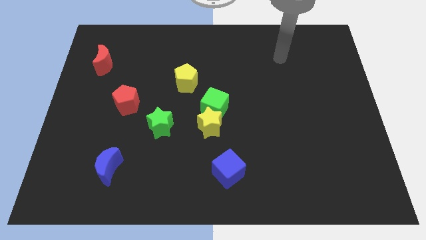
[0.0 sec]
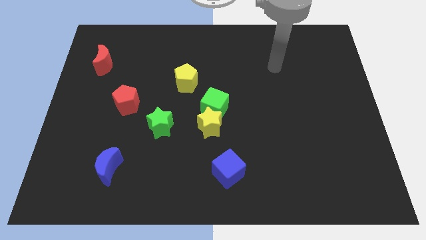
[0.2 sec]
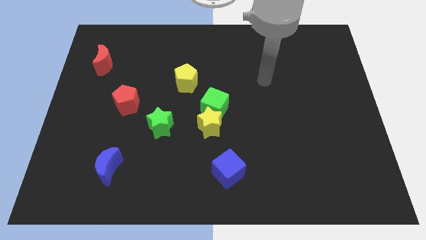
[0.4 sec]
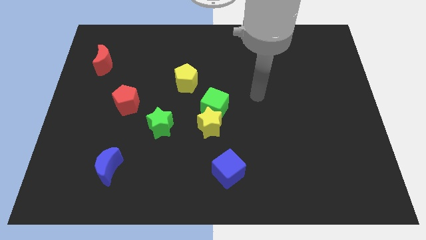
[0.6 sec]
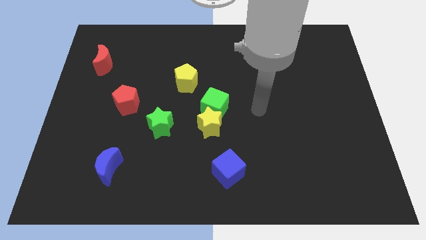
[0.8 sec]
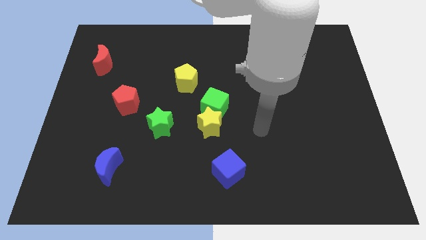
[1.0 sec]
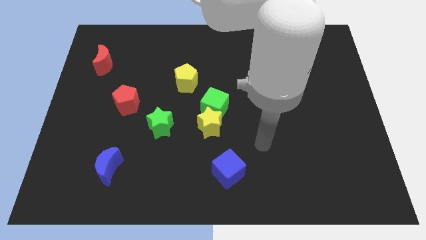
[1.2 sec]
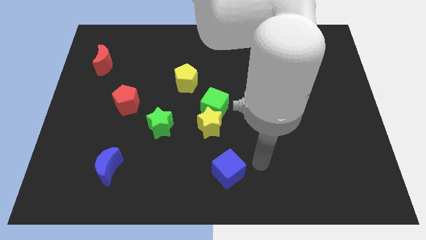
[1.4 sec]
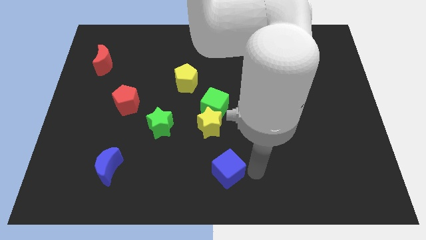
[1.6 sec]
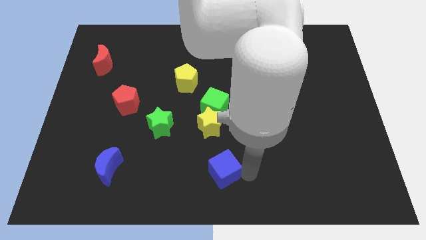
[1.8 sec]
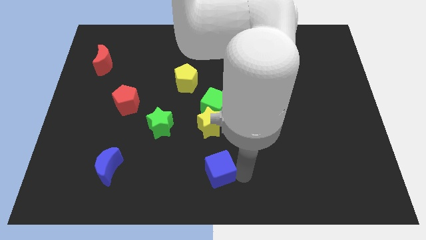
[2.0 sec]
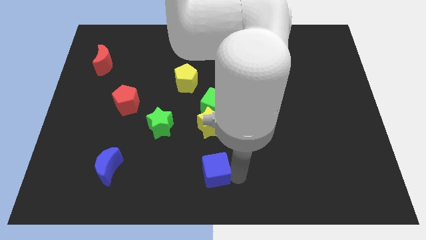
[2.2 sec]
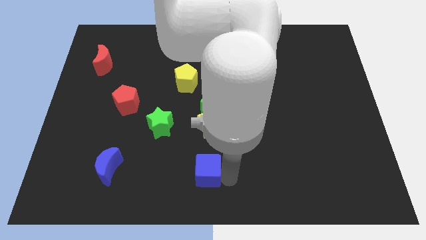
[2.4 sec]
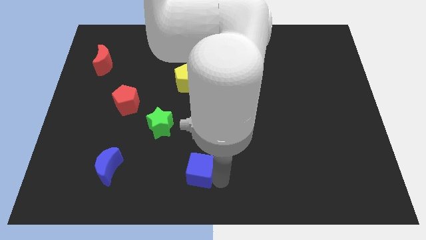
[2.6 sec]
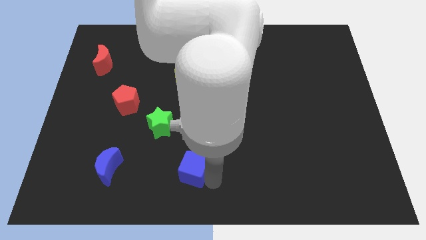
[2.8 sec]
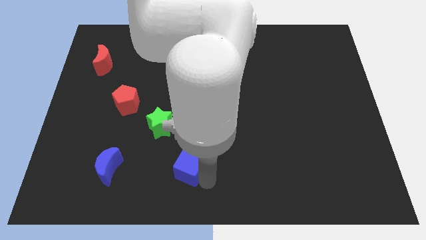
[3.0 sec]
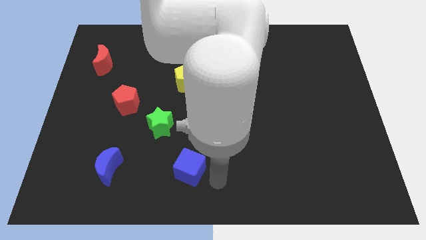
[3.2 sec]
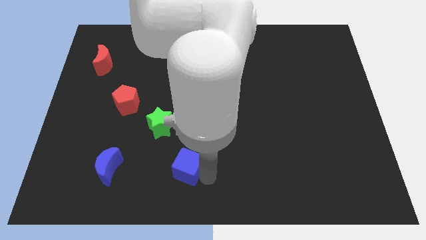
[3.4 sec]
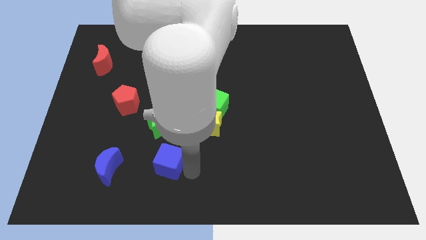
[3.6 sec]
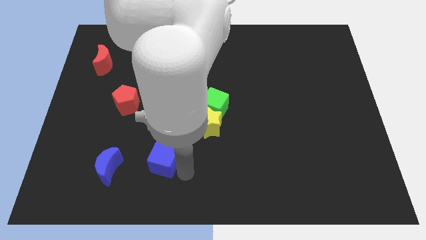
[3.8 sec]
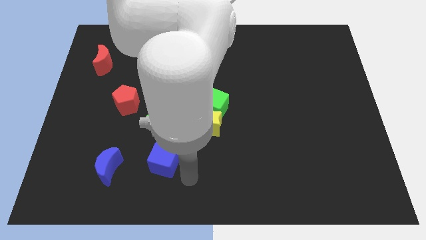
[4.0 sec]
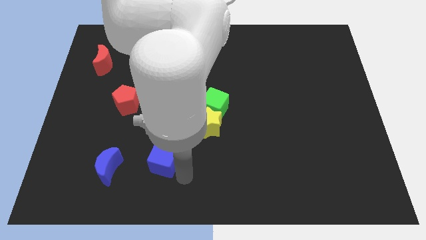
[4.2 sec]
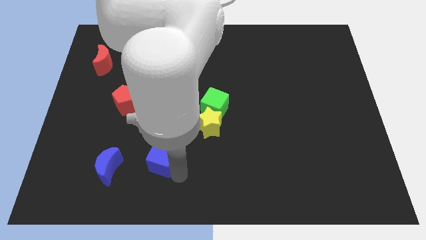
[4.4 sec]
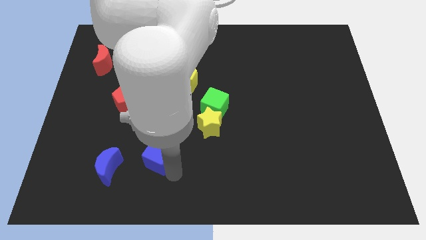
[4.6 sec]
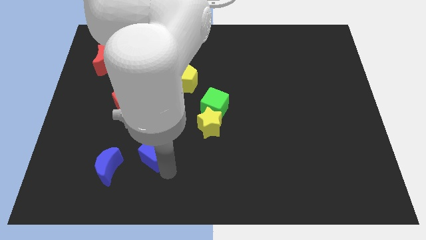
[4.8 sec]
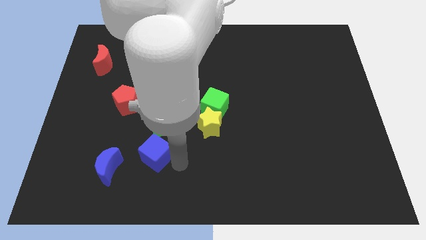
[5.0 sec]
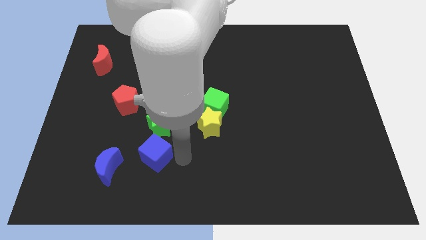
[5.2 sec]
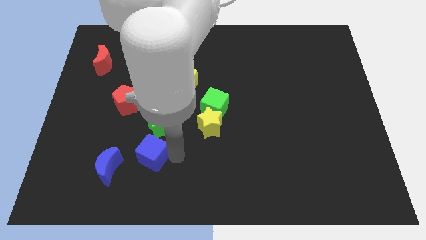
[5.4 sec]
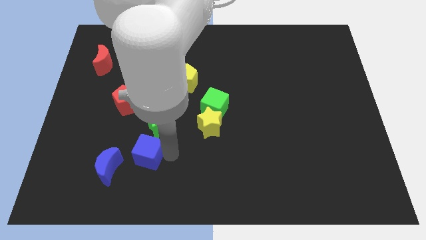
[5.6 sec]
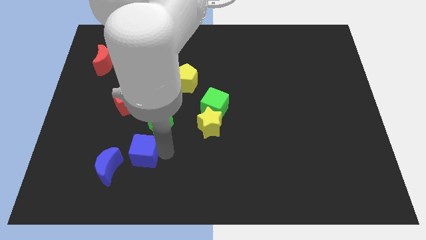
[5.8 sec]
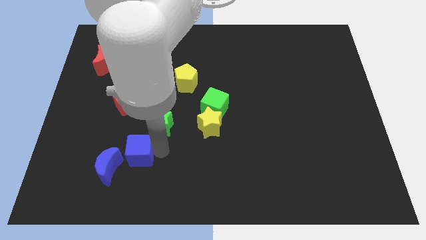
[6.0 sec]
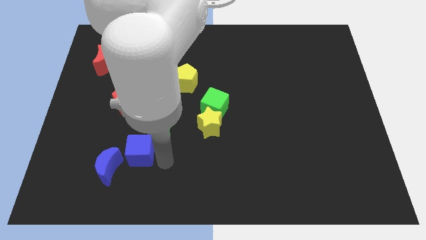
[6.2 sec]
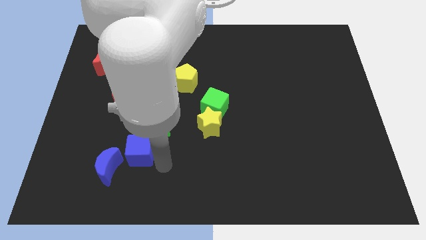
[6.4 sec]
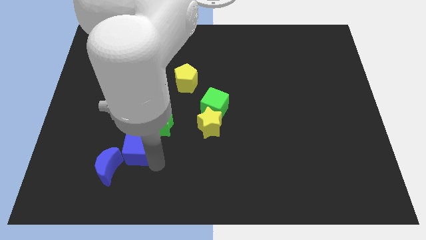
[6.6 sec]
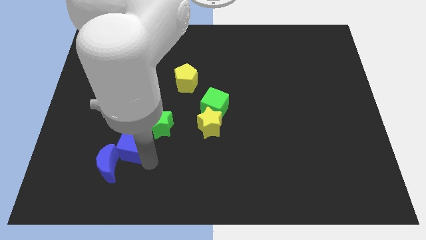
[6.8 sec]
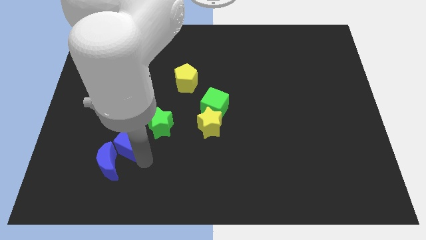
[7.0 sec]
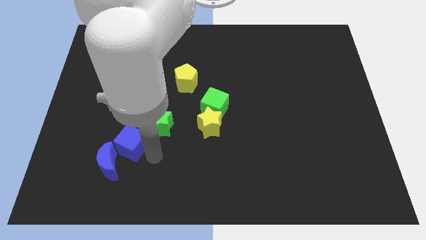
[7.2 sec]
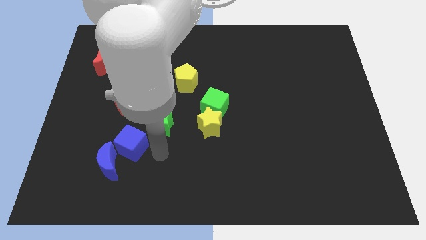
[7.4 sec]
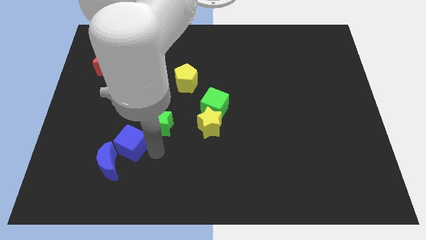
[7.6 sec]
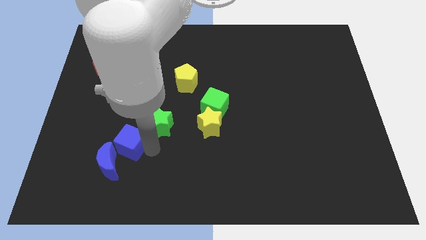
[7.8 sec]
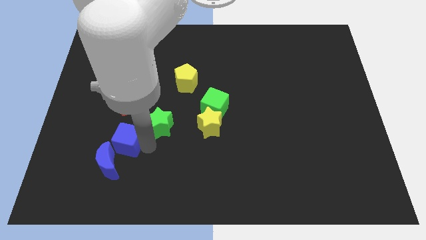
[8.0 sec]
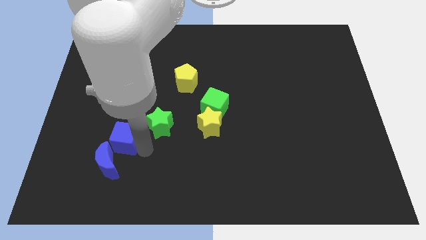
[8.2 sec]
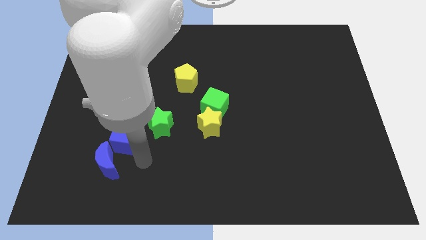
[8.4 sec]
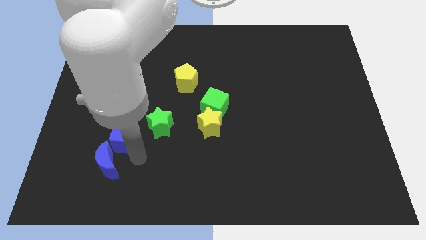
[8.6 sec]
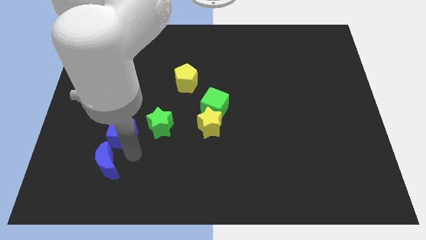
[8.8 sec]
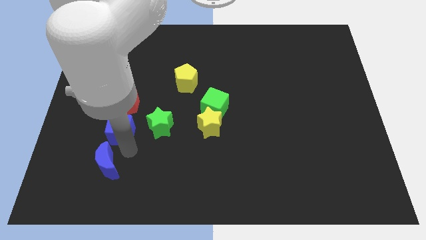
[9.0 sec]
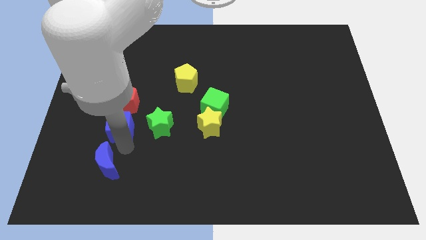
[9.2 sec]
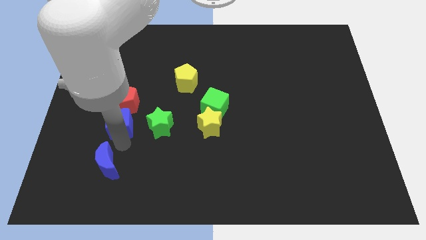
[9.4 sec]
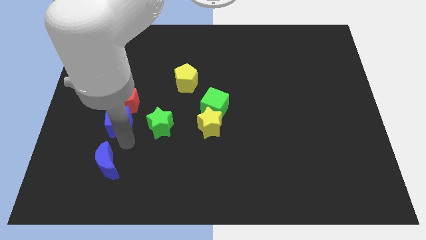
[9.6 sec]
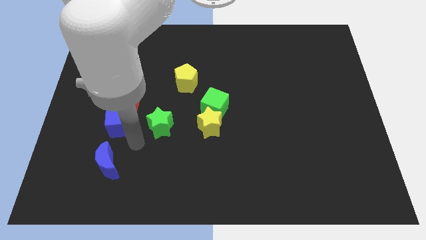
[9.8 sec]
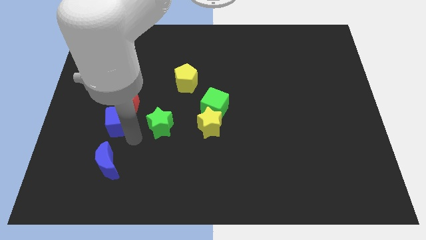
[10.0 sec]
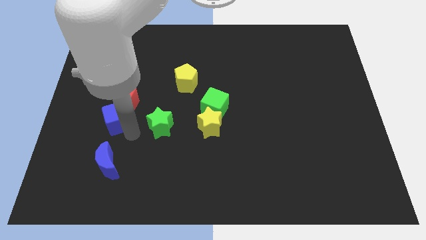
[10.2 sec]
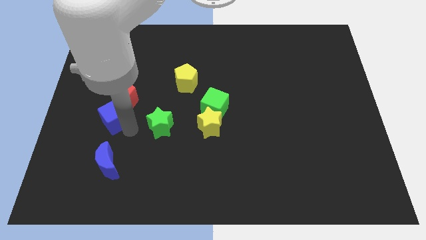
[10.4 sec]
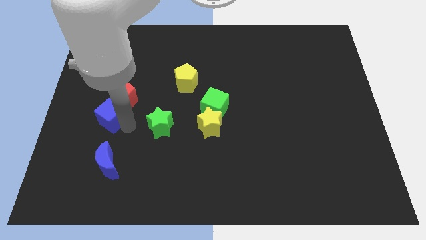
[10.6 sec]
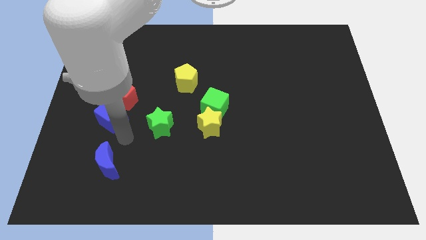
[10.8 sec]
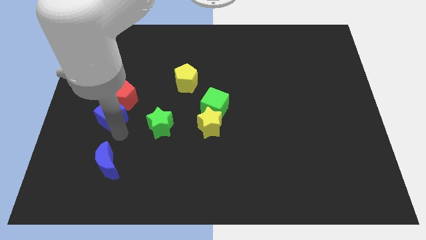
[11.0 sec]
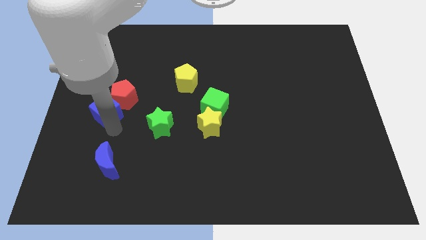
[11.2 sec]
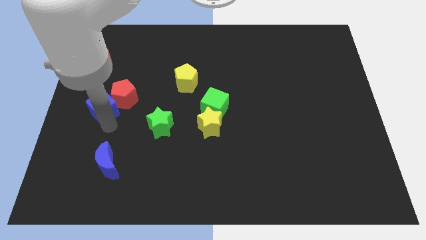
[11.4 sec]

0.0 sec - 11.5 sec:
move the blue cube to the bottom side of the red moon

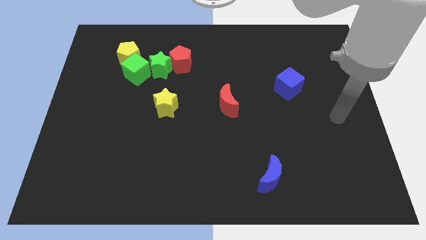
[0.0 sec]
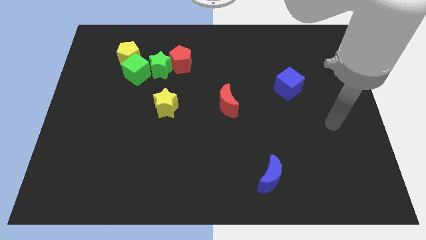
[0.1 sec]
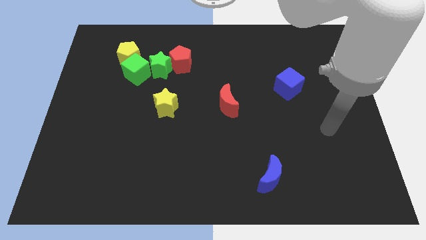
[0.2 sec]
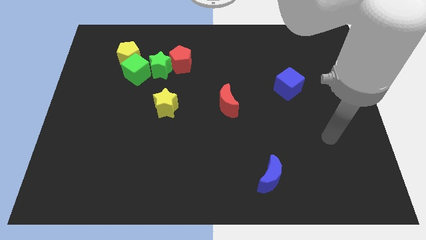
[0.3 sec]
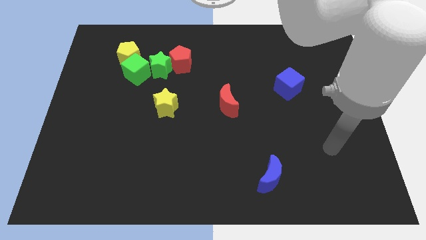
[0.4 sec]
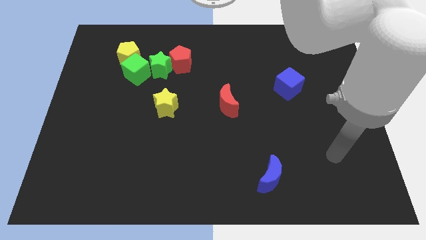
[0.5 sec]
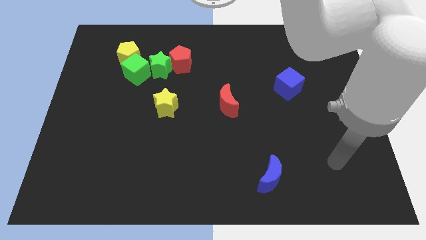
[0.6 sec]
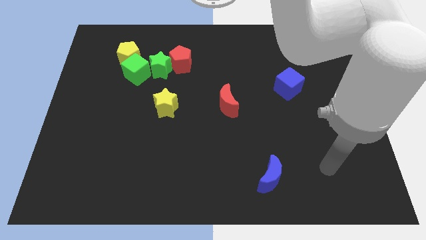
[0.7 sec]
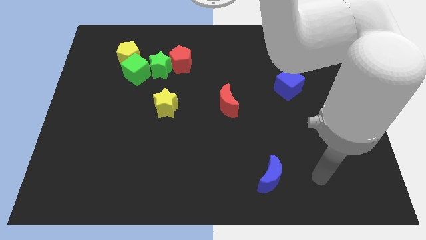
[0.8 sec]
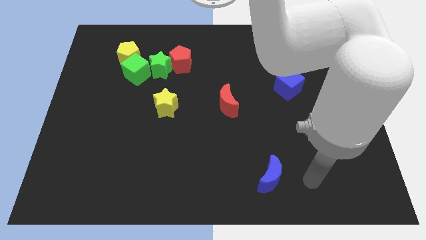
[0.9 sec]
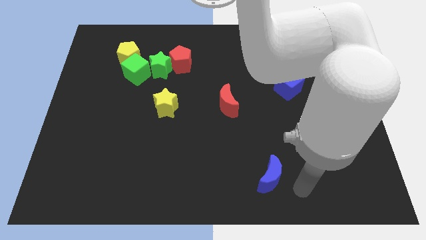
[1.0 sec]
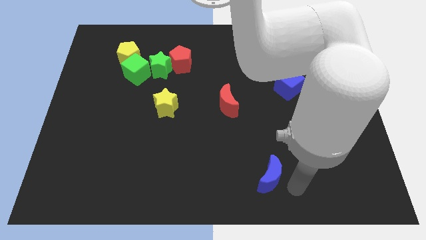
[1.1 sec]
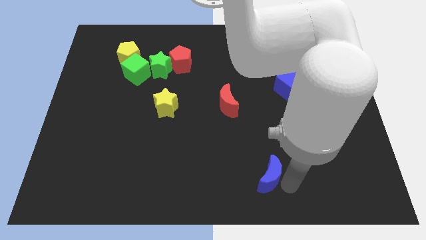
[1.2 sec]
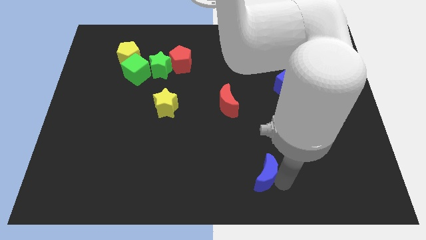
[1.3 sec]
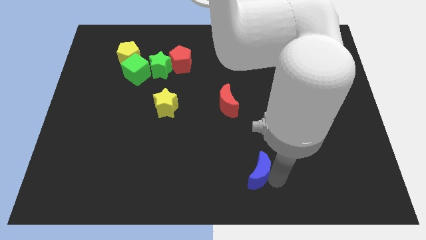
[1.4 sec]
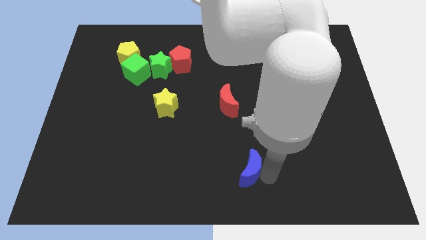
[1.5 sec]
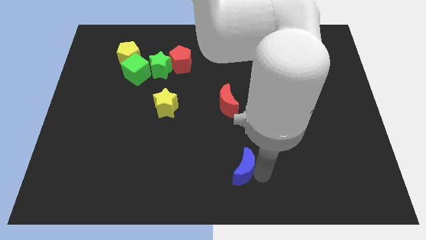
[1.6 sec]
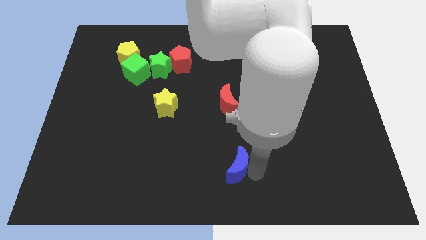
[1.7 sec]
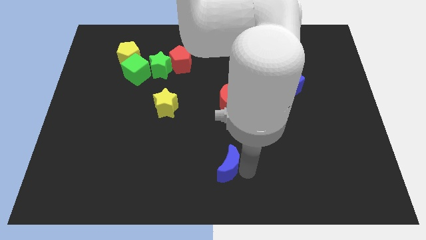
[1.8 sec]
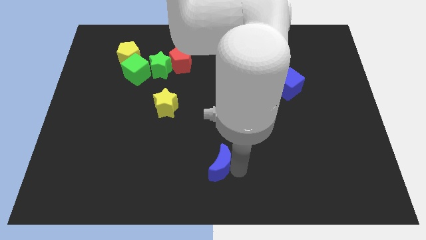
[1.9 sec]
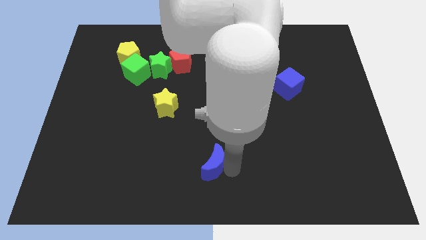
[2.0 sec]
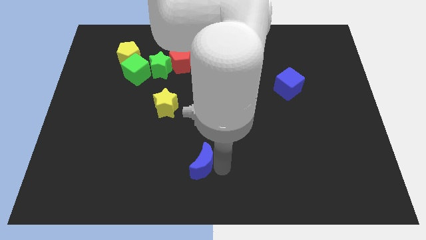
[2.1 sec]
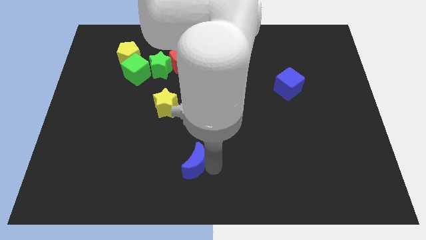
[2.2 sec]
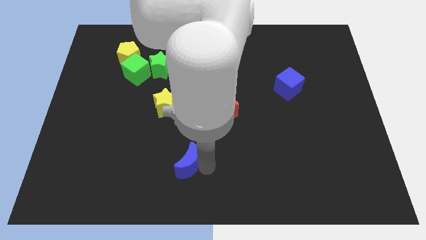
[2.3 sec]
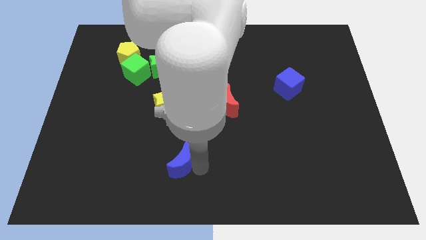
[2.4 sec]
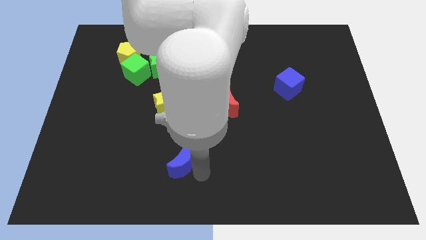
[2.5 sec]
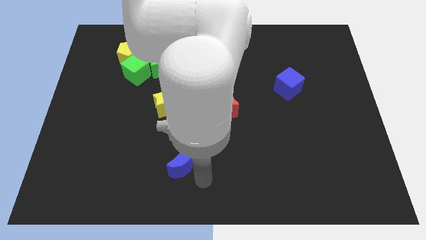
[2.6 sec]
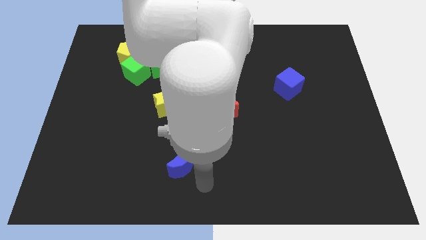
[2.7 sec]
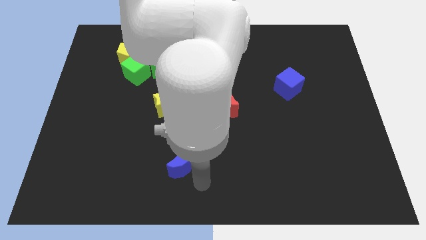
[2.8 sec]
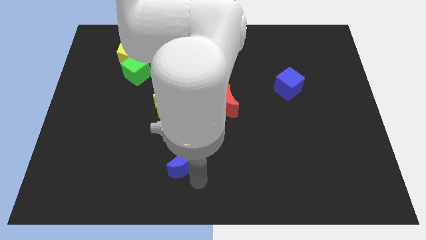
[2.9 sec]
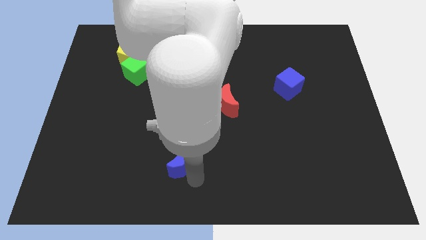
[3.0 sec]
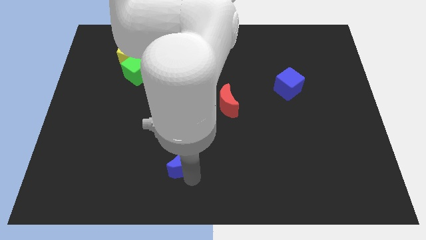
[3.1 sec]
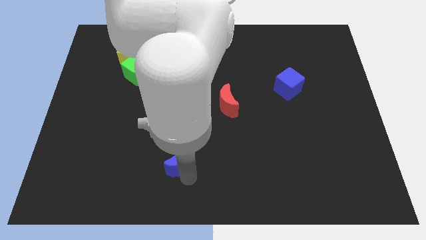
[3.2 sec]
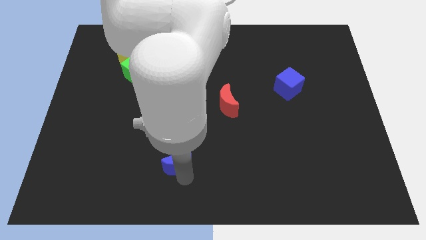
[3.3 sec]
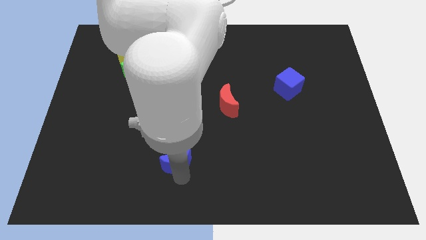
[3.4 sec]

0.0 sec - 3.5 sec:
move the blue moon to the bottom side of the yellow star
